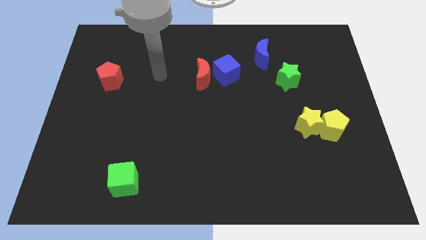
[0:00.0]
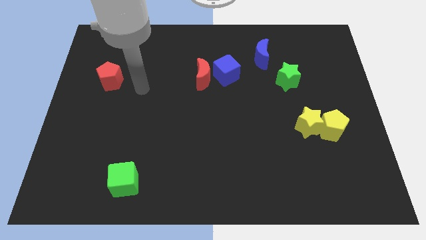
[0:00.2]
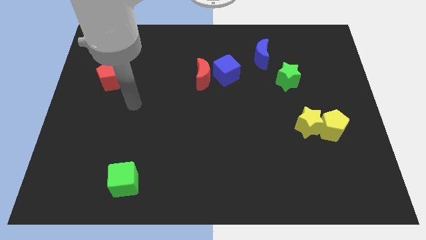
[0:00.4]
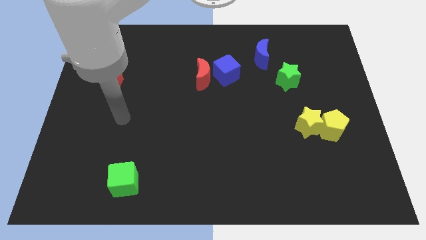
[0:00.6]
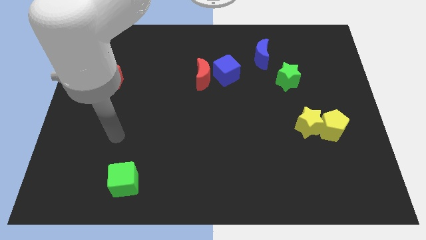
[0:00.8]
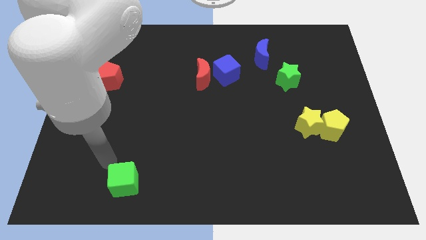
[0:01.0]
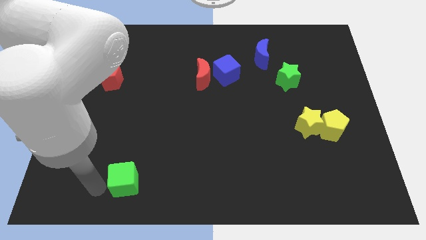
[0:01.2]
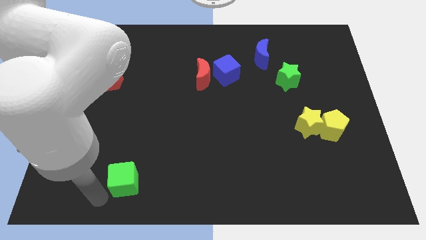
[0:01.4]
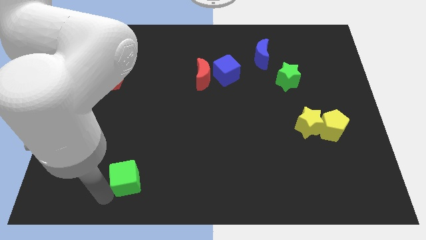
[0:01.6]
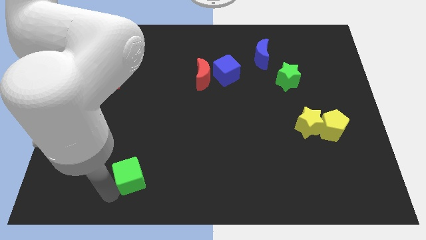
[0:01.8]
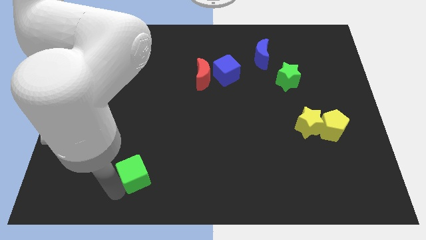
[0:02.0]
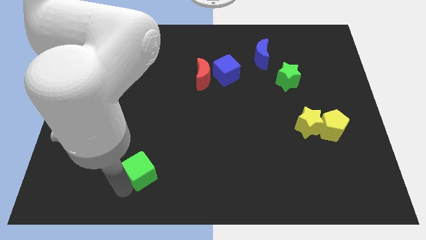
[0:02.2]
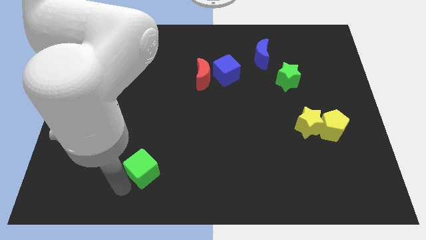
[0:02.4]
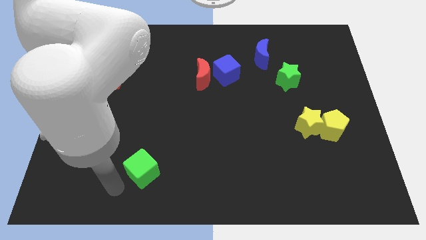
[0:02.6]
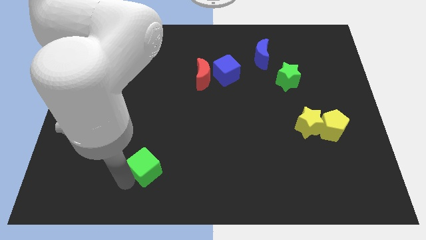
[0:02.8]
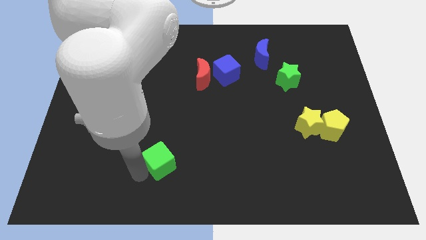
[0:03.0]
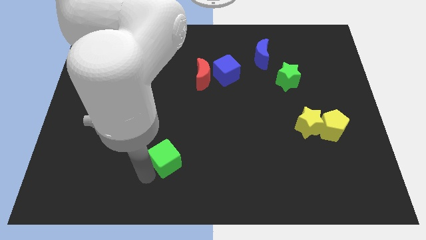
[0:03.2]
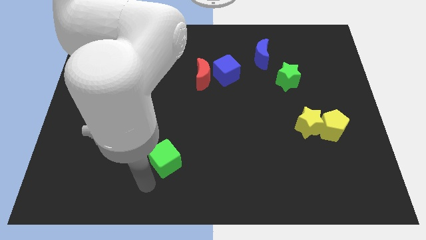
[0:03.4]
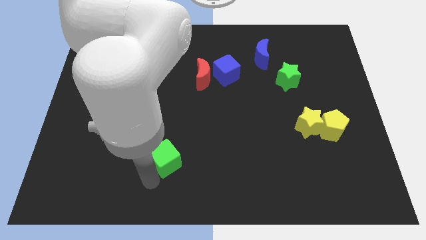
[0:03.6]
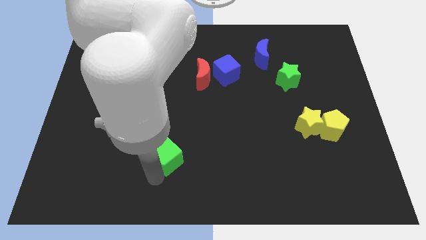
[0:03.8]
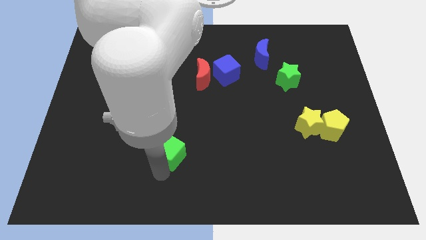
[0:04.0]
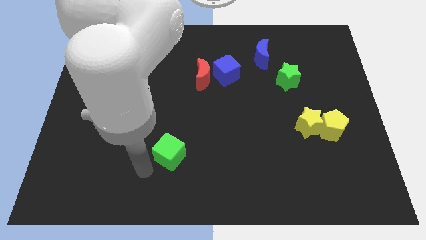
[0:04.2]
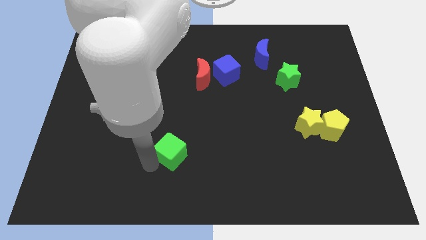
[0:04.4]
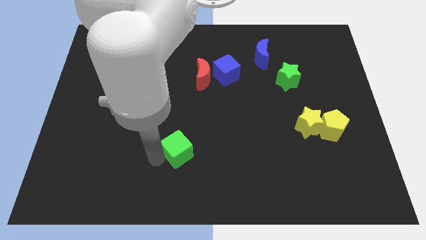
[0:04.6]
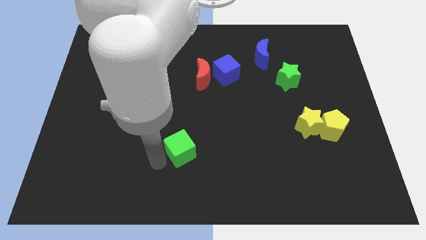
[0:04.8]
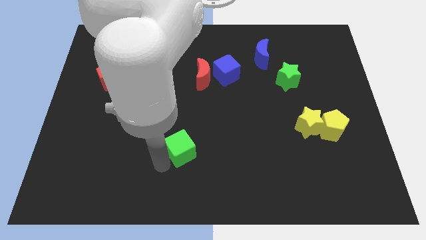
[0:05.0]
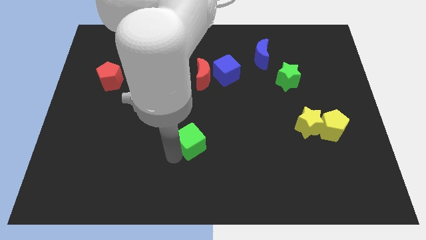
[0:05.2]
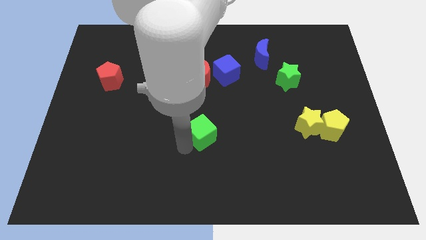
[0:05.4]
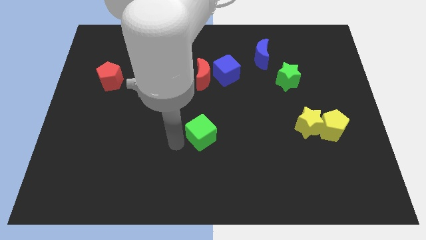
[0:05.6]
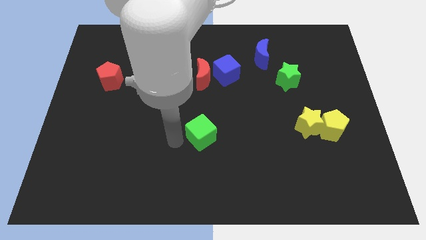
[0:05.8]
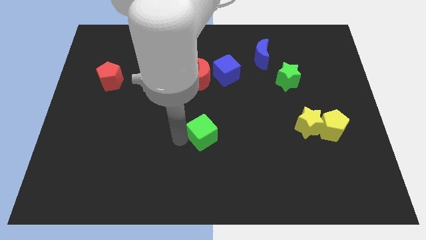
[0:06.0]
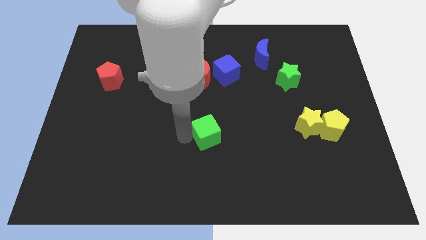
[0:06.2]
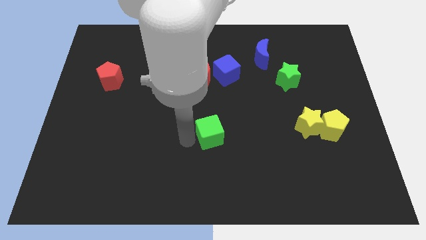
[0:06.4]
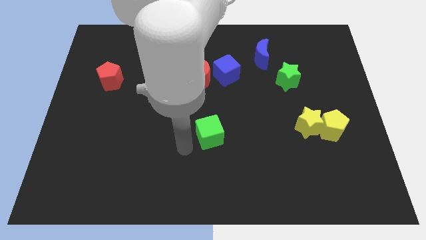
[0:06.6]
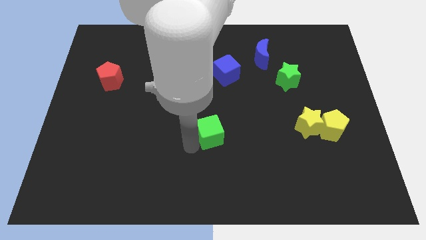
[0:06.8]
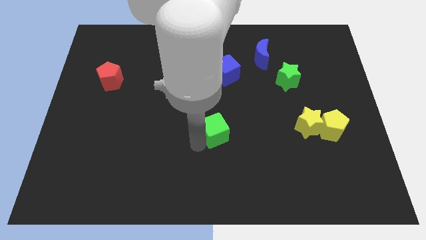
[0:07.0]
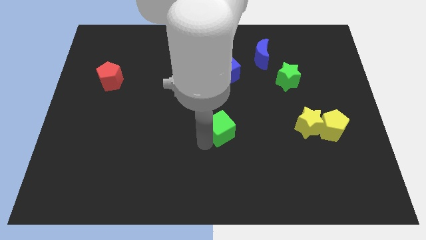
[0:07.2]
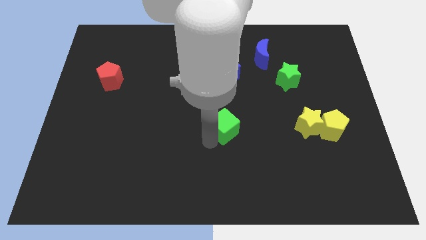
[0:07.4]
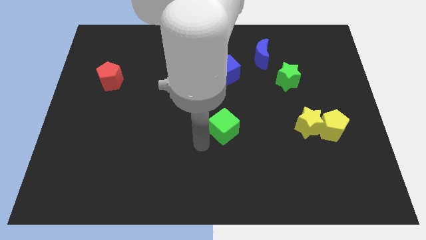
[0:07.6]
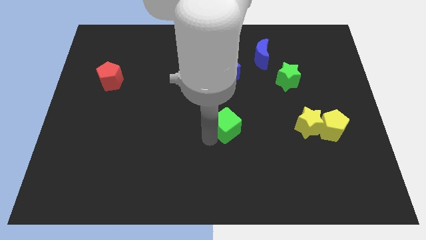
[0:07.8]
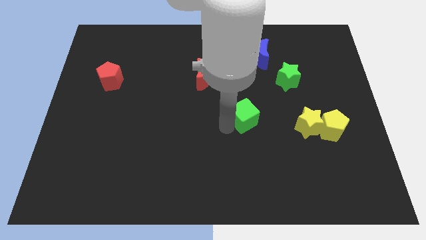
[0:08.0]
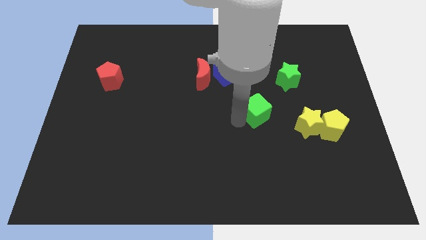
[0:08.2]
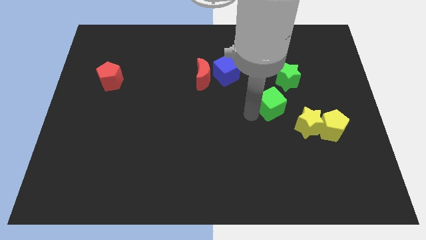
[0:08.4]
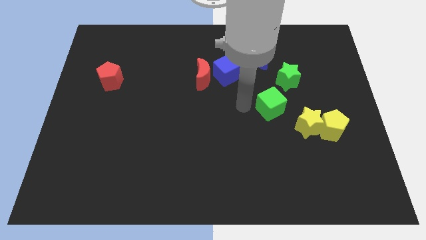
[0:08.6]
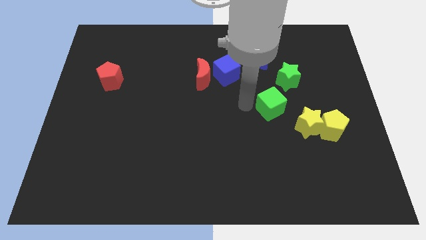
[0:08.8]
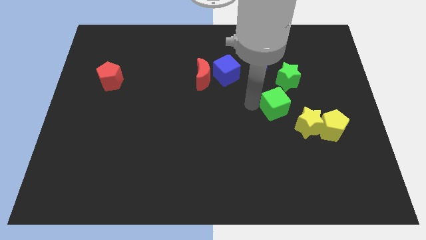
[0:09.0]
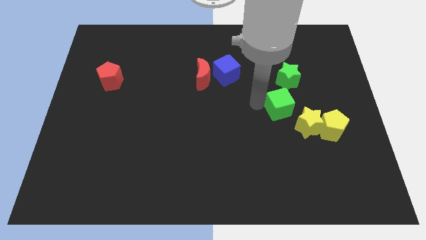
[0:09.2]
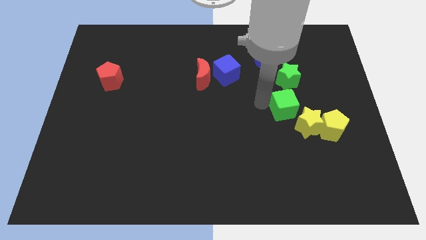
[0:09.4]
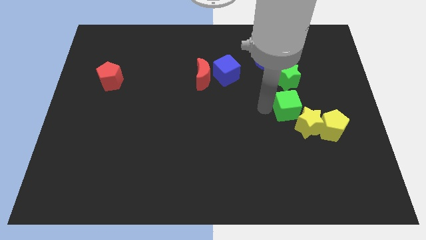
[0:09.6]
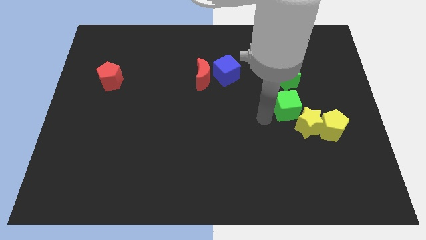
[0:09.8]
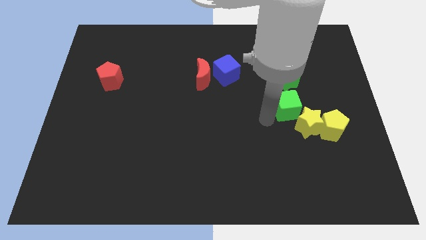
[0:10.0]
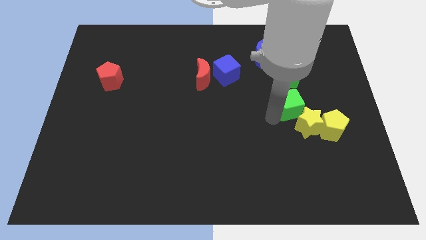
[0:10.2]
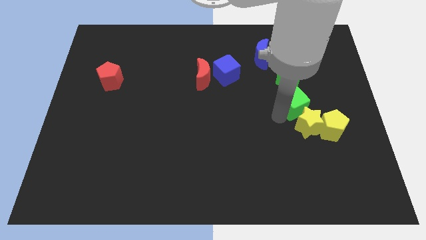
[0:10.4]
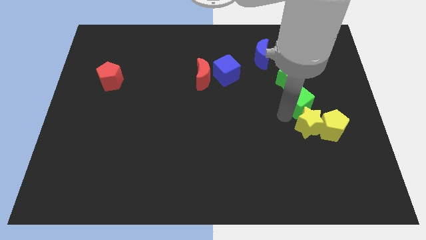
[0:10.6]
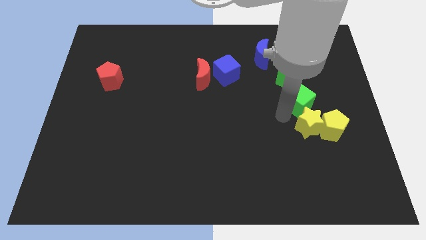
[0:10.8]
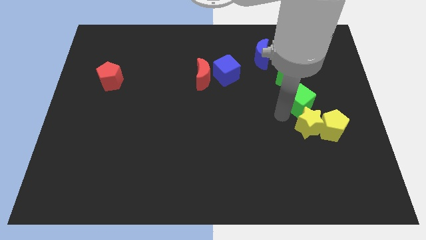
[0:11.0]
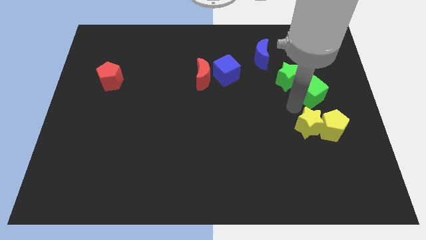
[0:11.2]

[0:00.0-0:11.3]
slide the green cube right of the green star

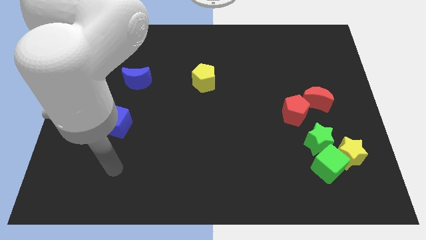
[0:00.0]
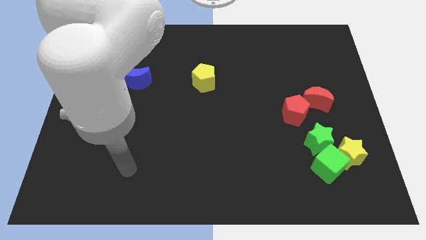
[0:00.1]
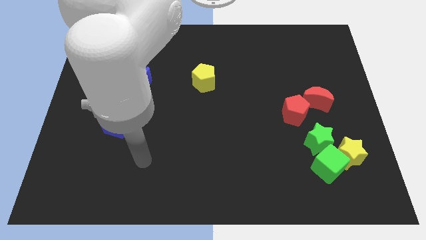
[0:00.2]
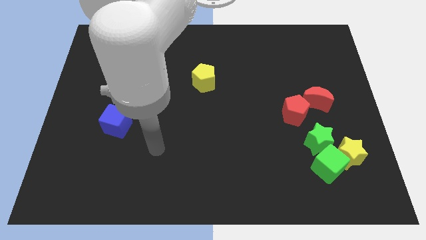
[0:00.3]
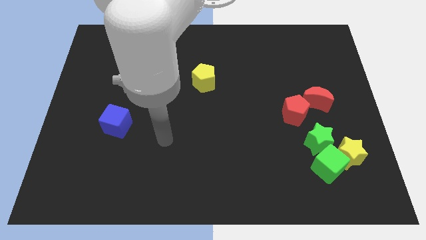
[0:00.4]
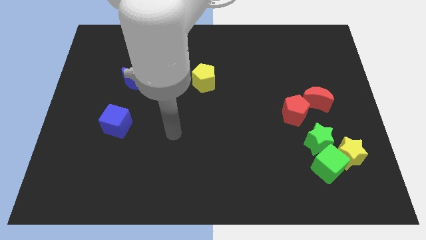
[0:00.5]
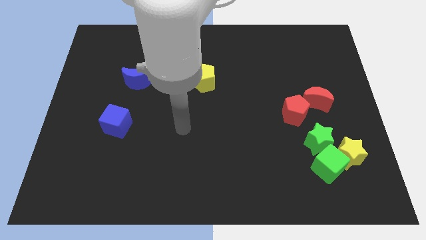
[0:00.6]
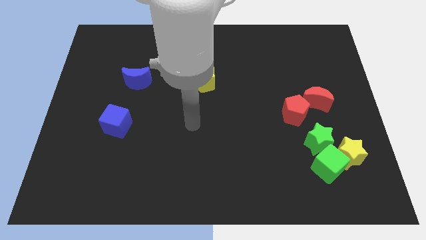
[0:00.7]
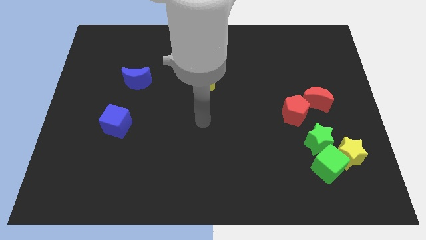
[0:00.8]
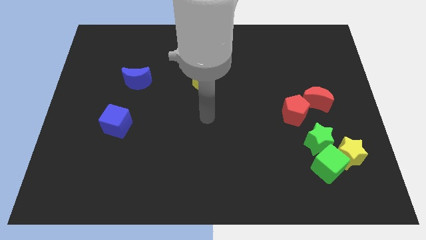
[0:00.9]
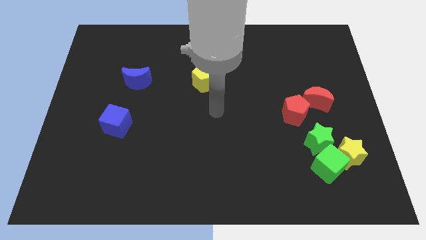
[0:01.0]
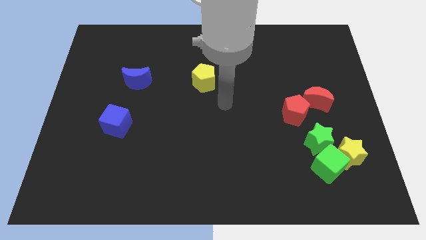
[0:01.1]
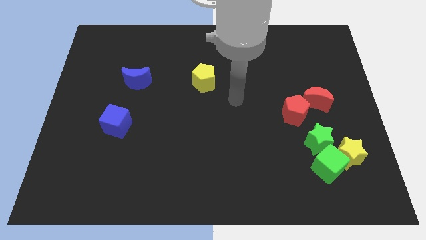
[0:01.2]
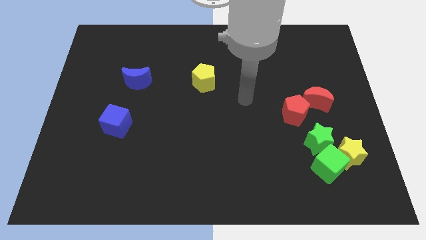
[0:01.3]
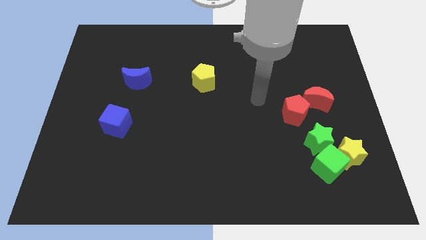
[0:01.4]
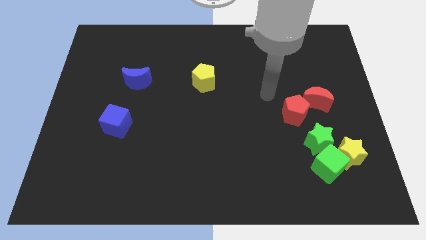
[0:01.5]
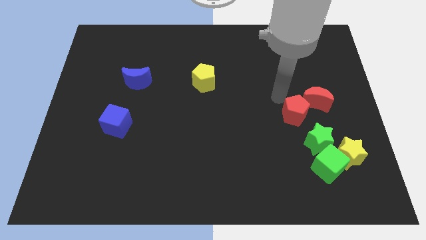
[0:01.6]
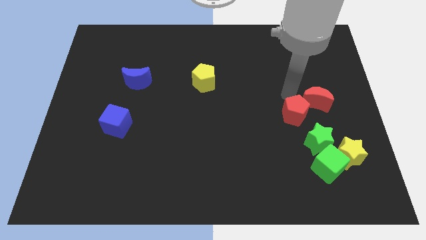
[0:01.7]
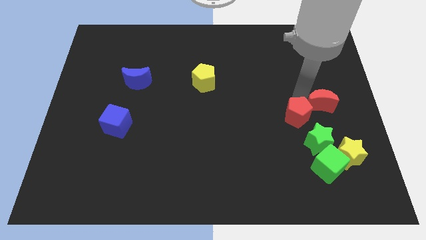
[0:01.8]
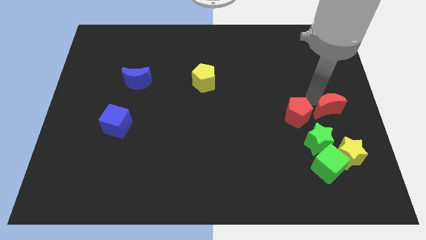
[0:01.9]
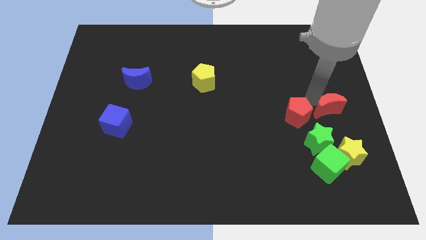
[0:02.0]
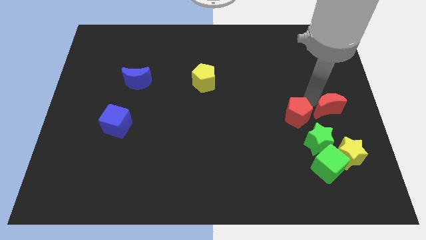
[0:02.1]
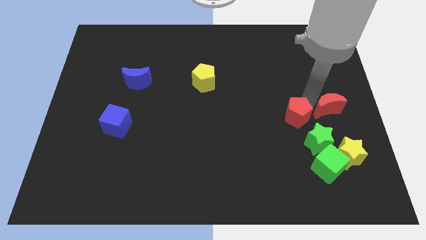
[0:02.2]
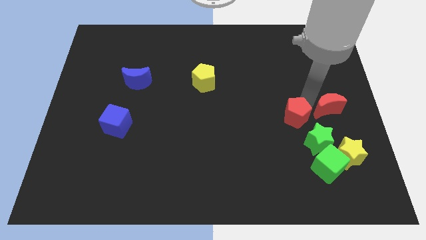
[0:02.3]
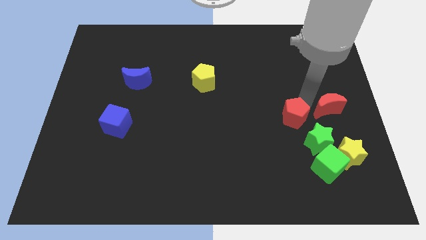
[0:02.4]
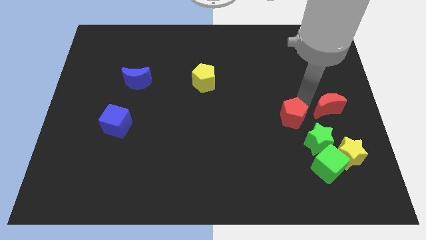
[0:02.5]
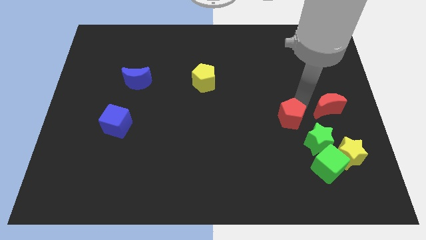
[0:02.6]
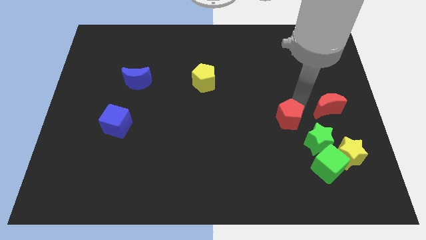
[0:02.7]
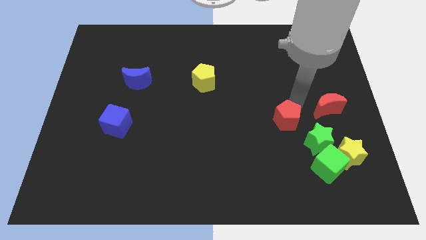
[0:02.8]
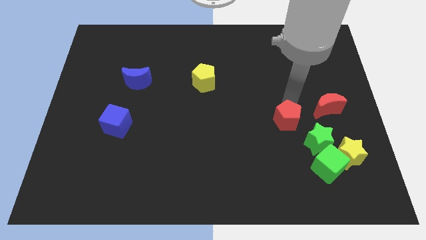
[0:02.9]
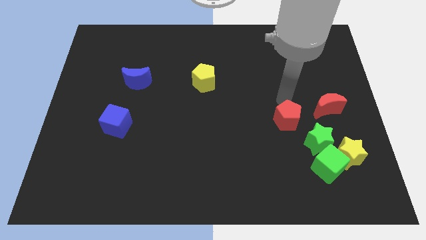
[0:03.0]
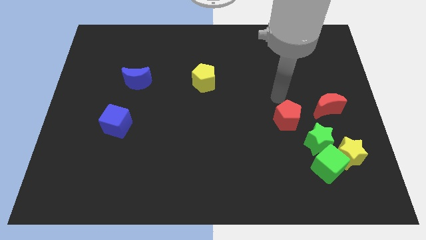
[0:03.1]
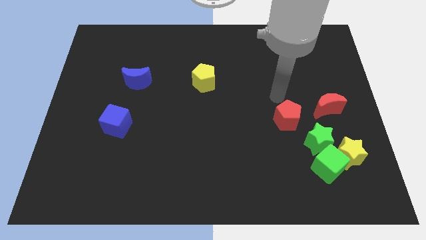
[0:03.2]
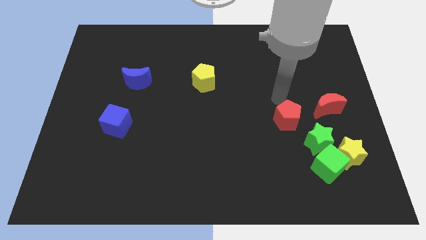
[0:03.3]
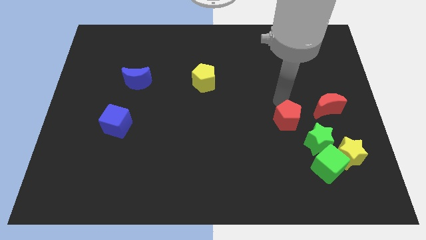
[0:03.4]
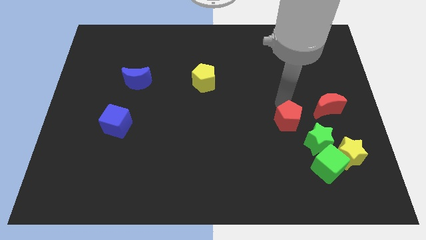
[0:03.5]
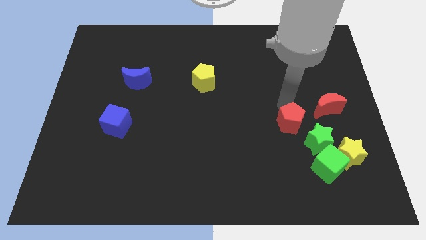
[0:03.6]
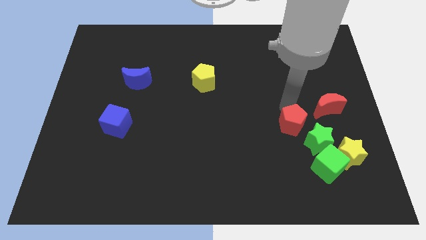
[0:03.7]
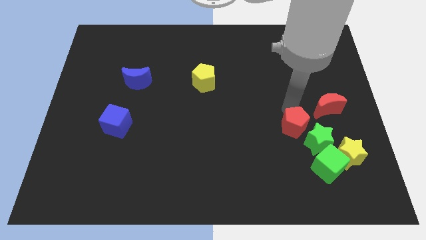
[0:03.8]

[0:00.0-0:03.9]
put the red pentagon diagonally up and to the left of the green cube
